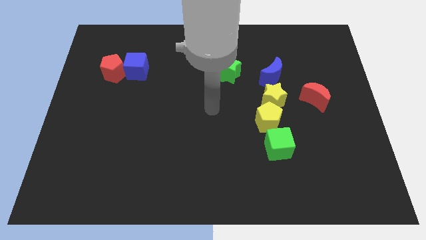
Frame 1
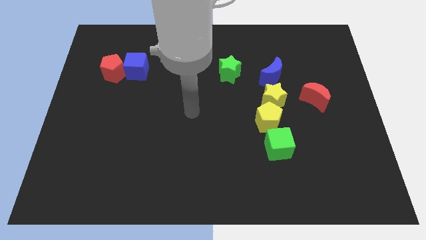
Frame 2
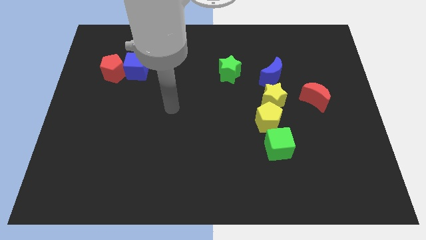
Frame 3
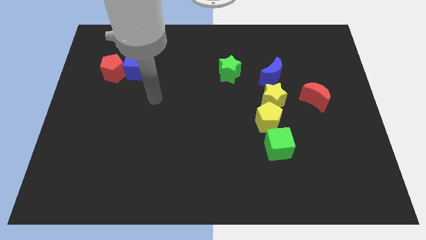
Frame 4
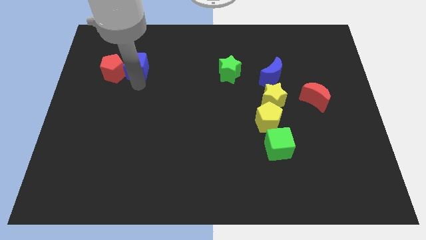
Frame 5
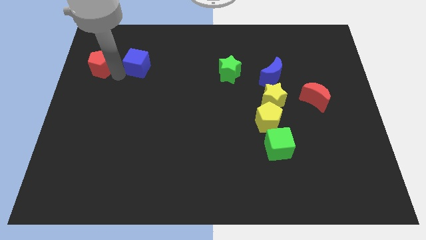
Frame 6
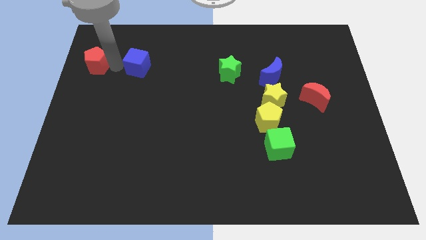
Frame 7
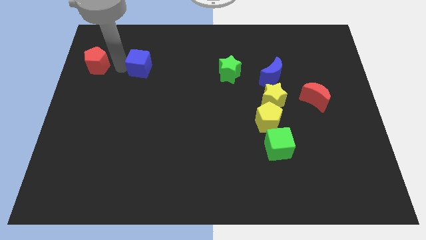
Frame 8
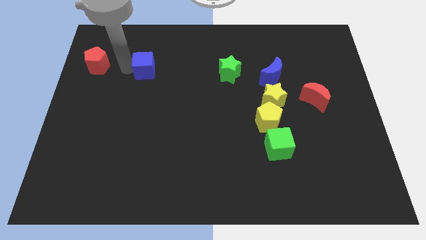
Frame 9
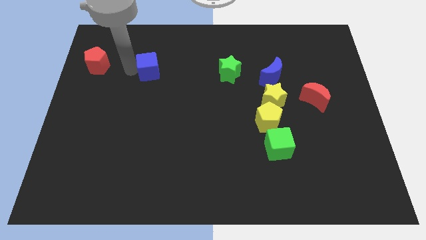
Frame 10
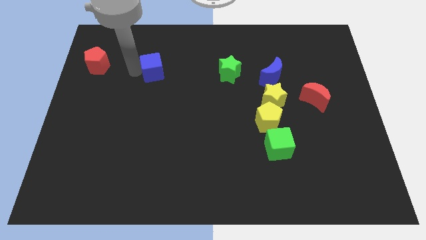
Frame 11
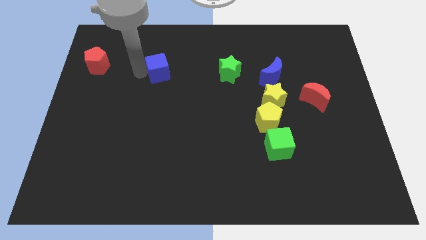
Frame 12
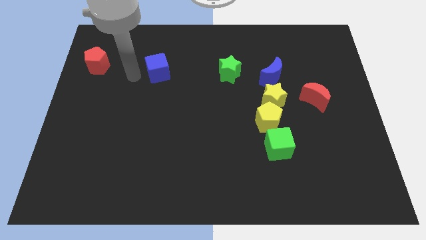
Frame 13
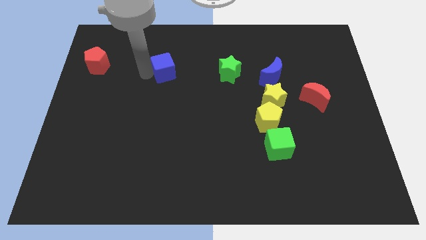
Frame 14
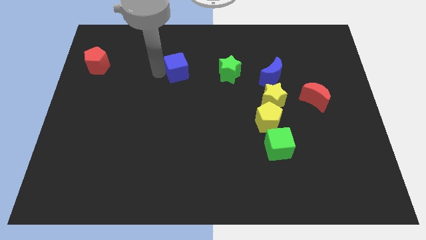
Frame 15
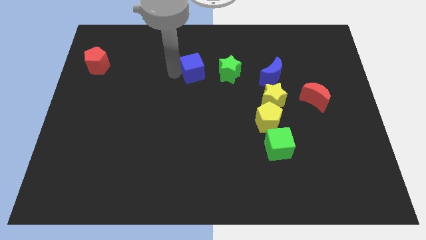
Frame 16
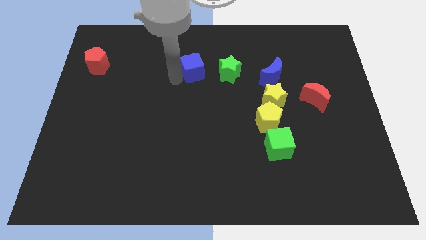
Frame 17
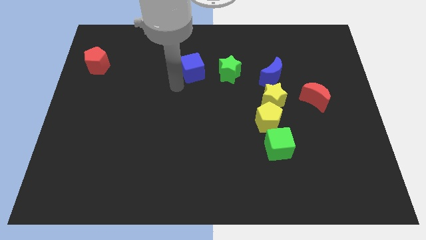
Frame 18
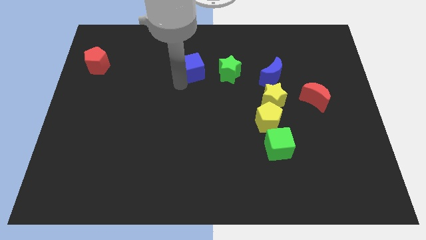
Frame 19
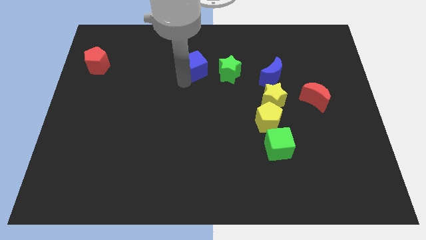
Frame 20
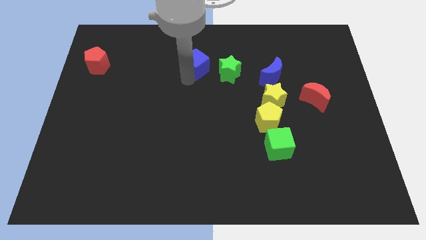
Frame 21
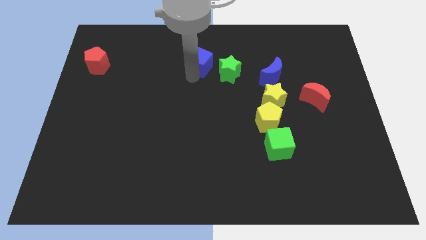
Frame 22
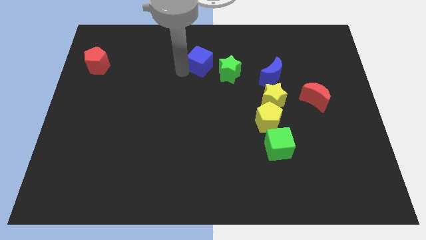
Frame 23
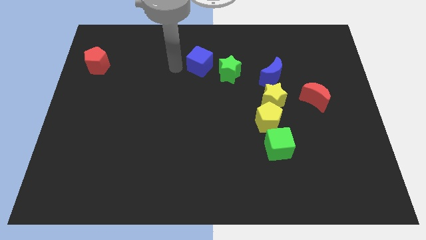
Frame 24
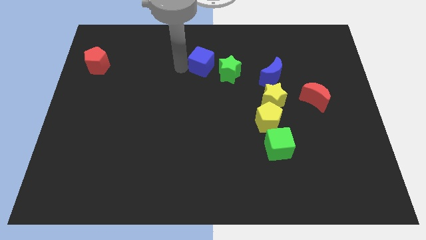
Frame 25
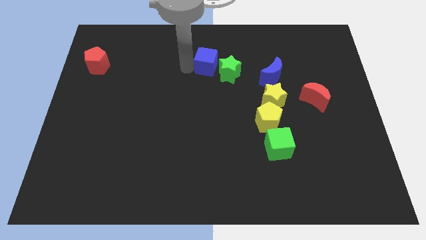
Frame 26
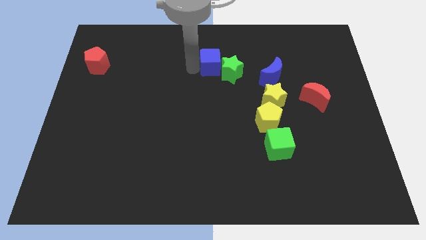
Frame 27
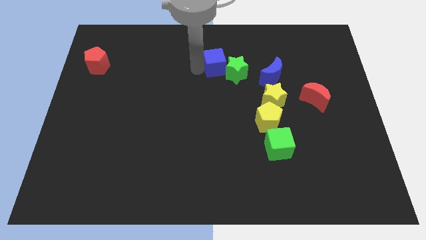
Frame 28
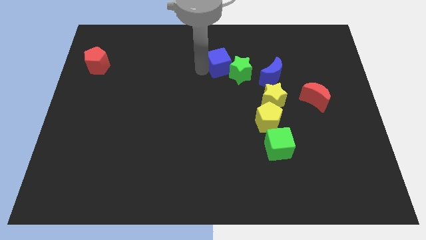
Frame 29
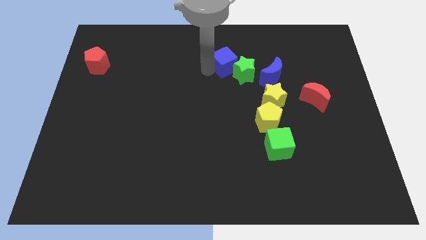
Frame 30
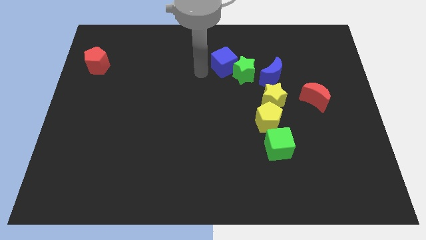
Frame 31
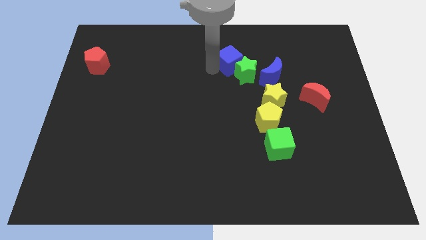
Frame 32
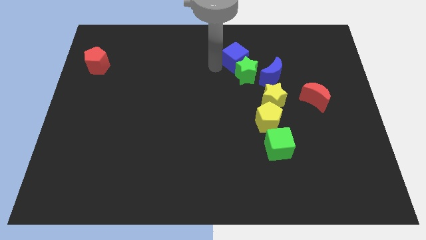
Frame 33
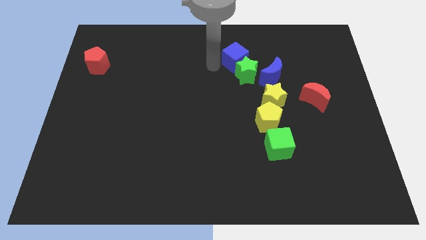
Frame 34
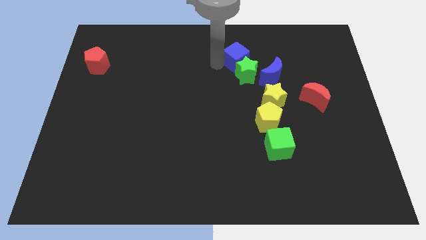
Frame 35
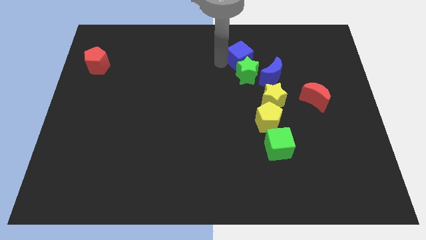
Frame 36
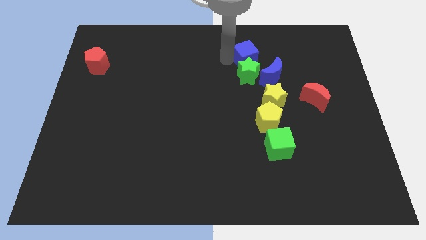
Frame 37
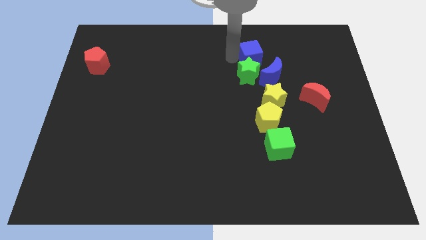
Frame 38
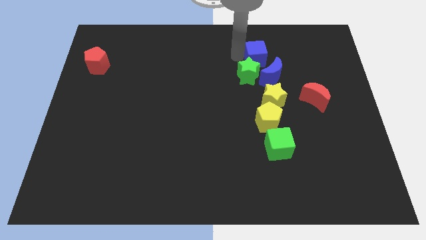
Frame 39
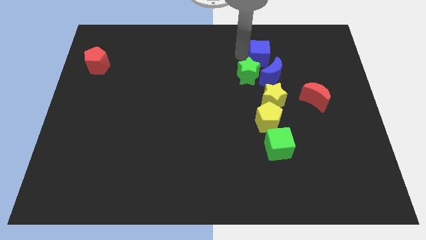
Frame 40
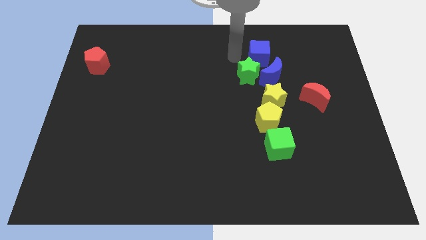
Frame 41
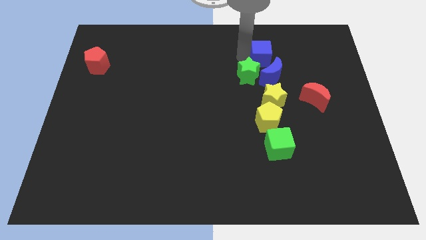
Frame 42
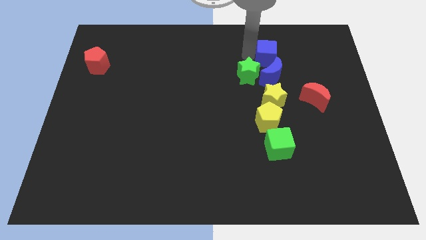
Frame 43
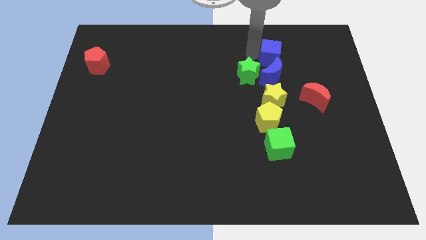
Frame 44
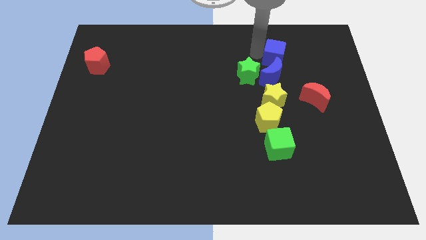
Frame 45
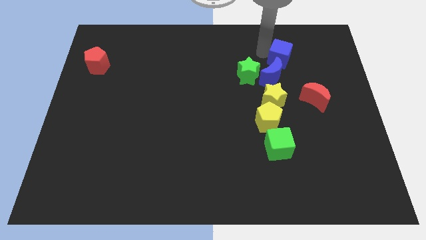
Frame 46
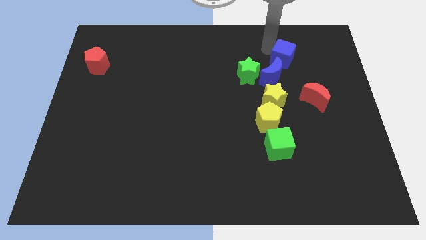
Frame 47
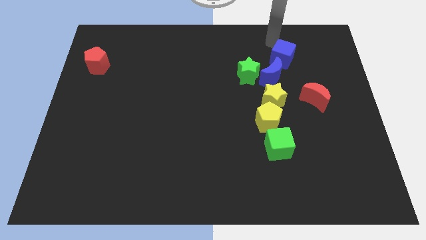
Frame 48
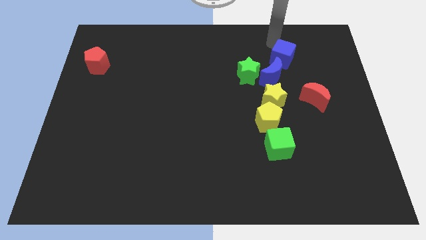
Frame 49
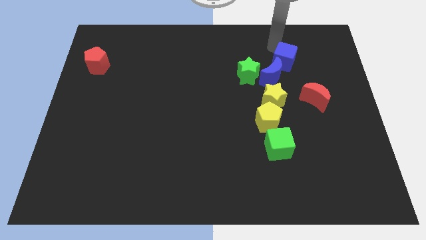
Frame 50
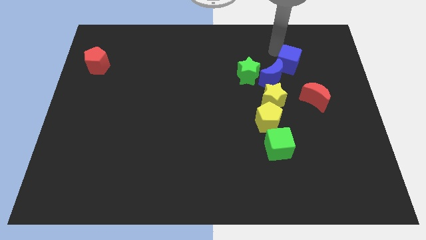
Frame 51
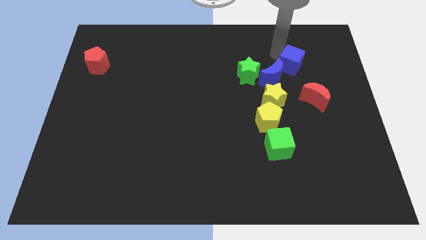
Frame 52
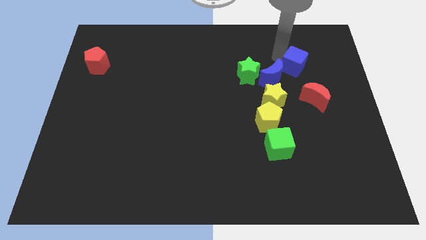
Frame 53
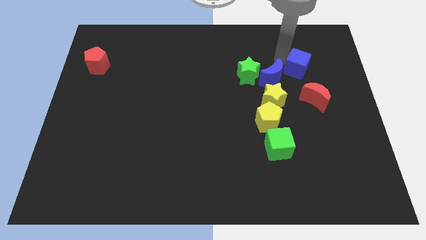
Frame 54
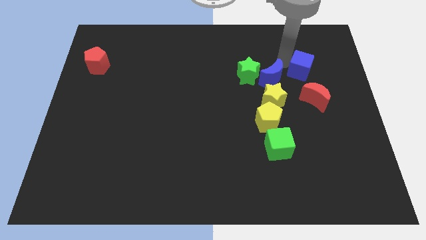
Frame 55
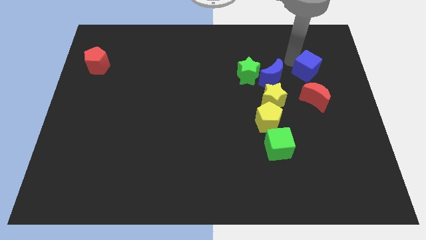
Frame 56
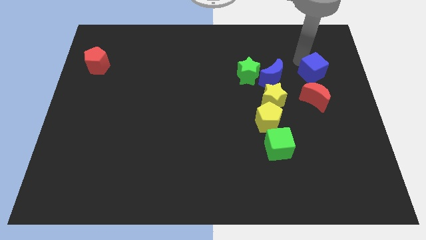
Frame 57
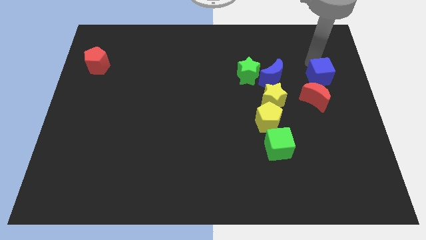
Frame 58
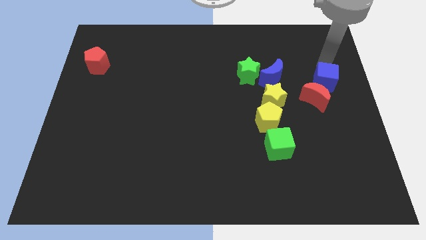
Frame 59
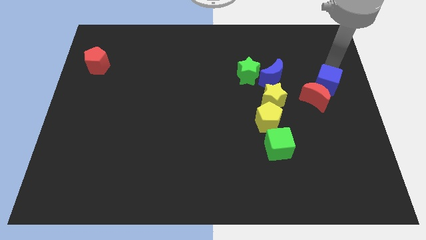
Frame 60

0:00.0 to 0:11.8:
slide the blue cube to the red moon

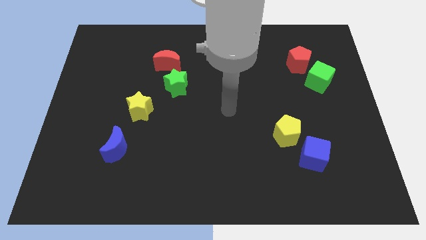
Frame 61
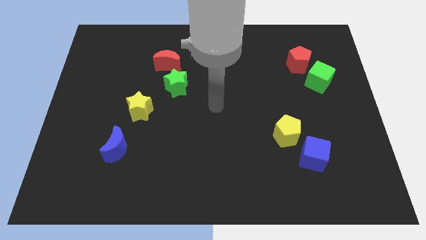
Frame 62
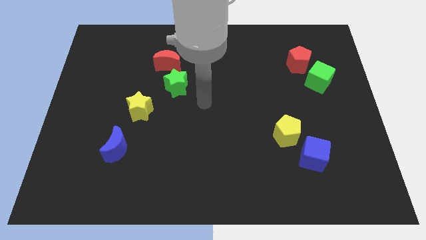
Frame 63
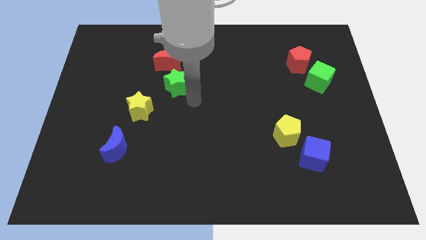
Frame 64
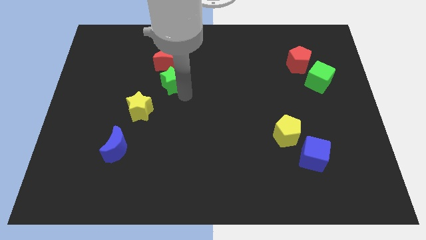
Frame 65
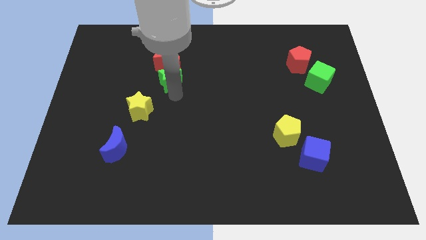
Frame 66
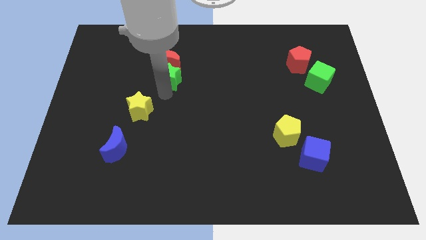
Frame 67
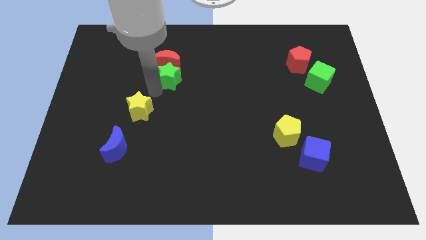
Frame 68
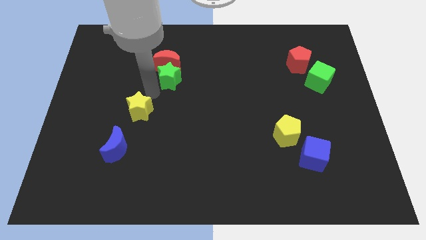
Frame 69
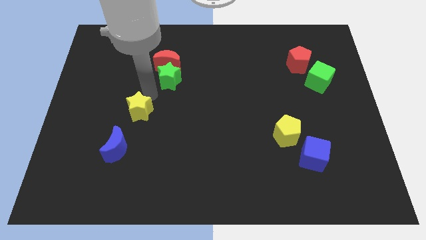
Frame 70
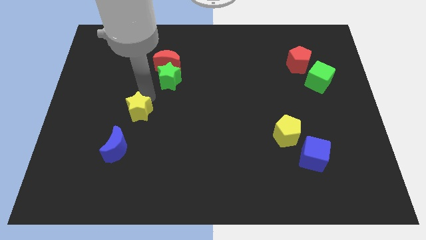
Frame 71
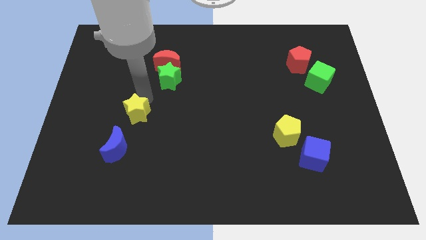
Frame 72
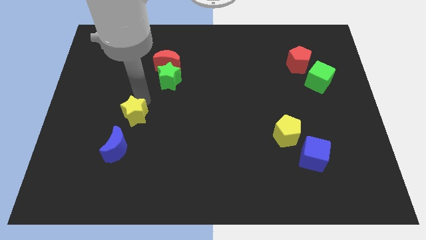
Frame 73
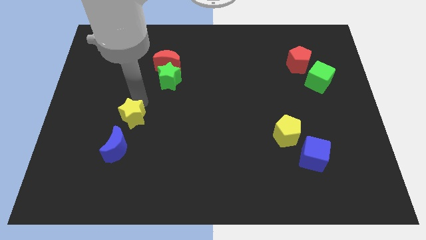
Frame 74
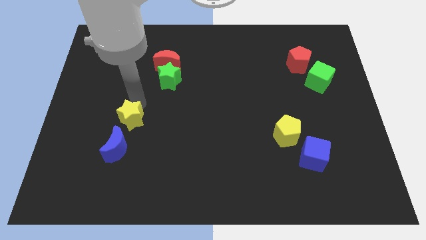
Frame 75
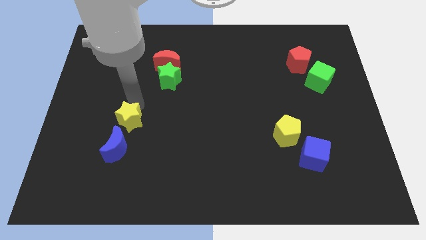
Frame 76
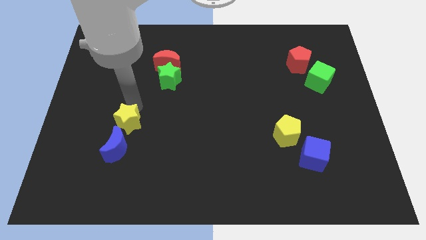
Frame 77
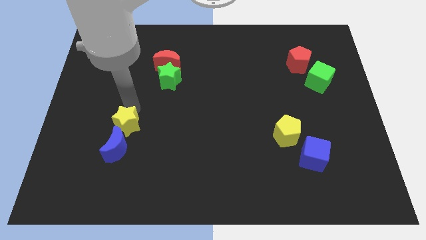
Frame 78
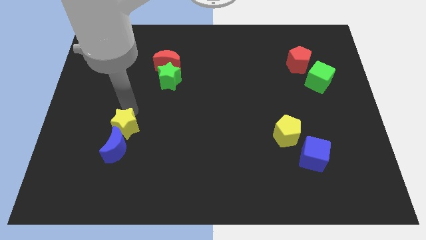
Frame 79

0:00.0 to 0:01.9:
move the yellow star to the blue moon
